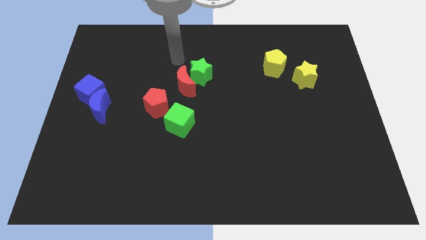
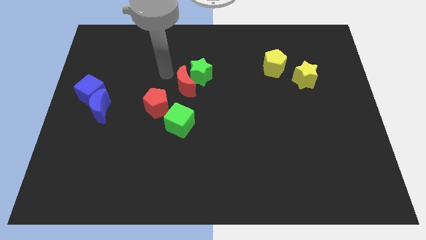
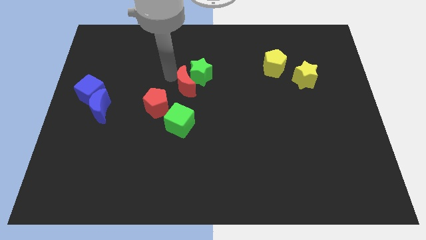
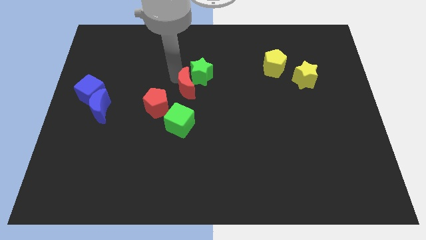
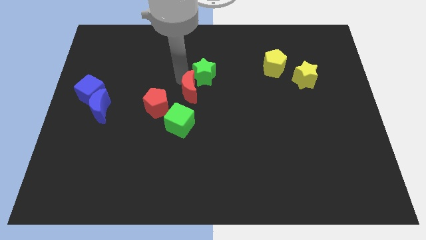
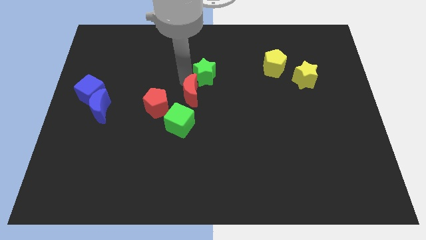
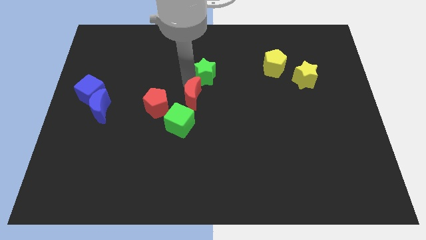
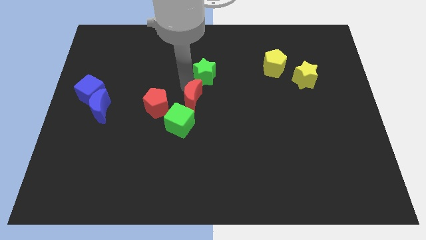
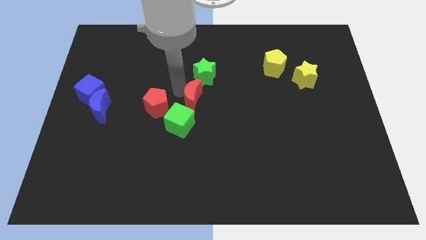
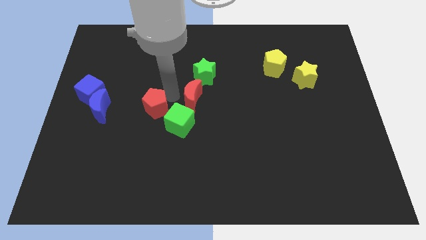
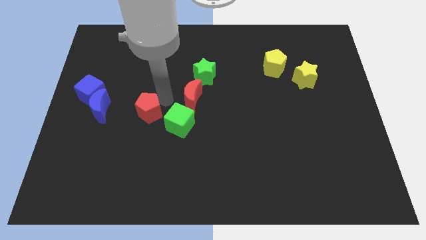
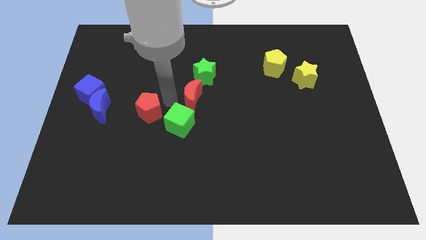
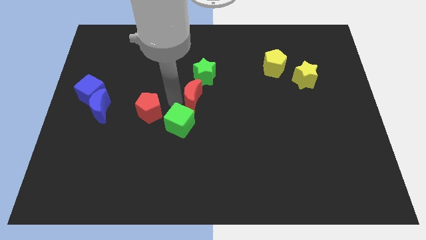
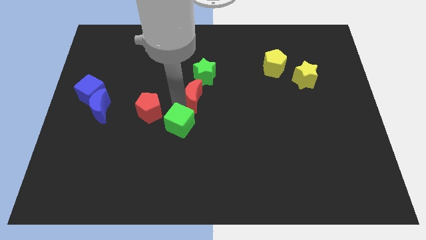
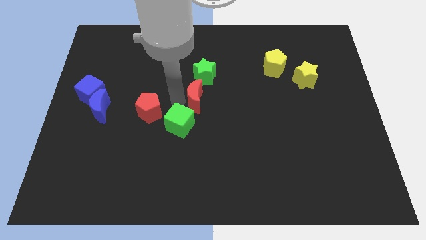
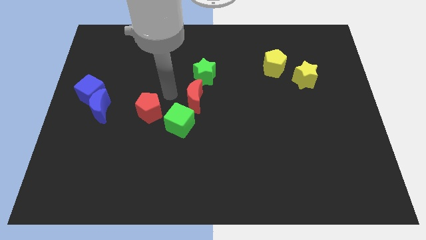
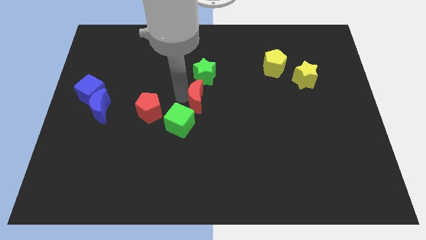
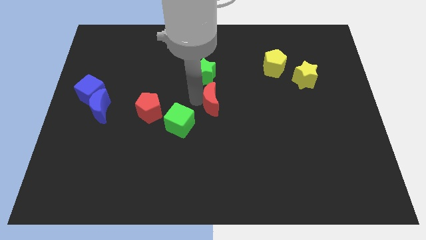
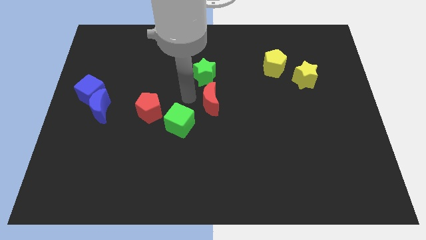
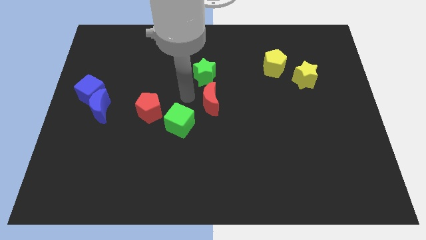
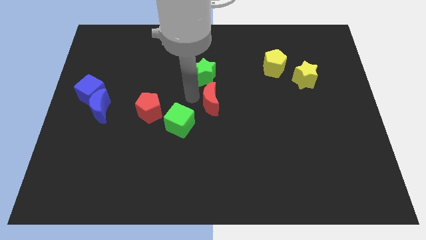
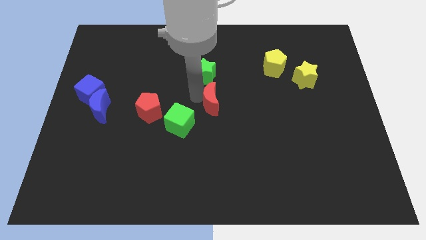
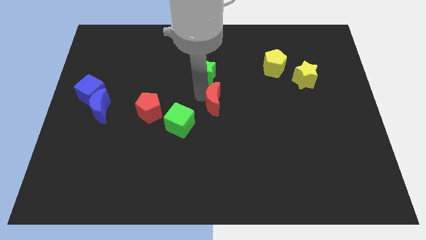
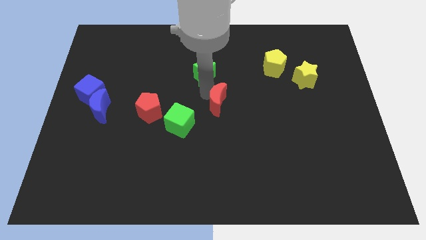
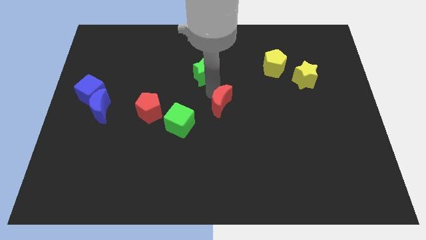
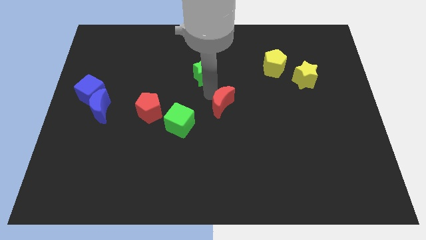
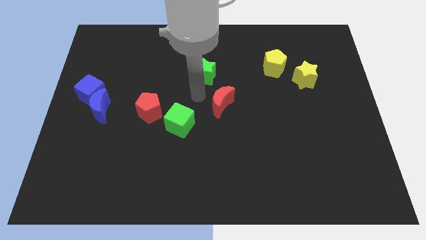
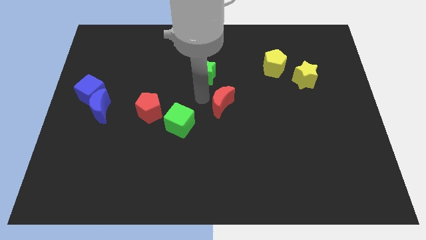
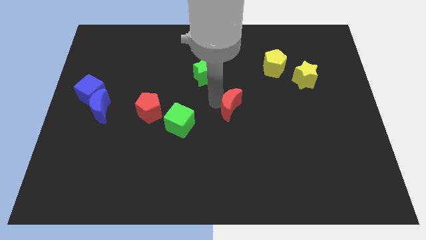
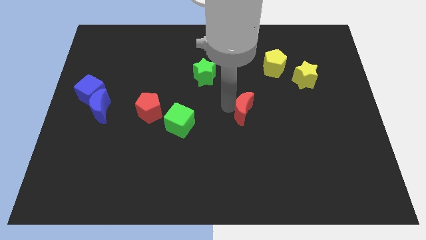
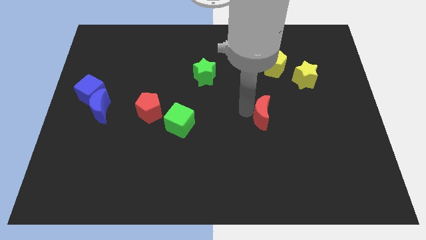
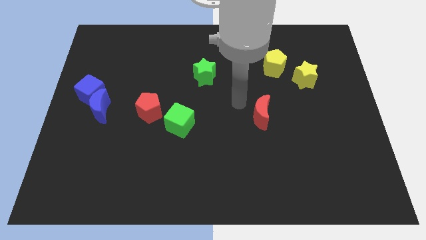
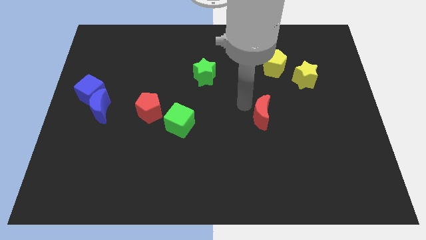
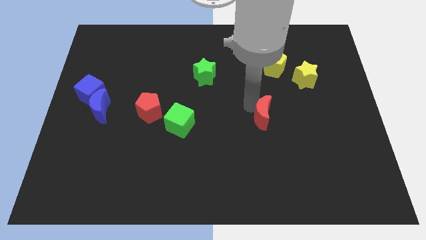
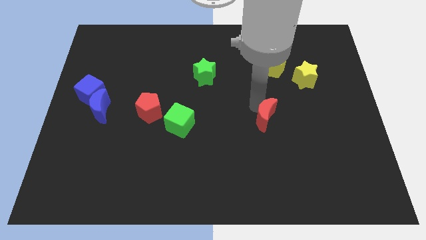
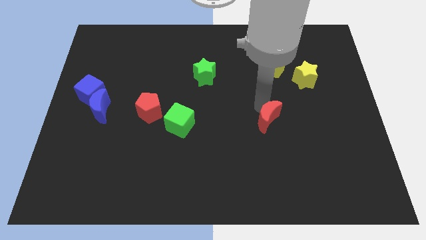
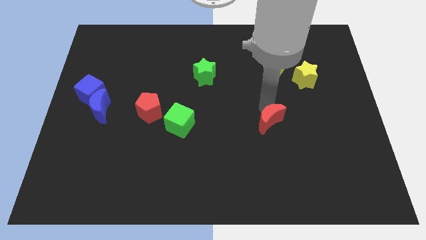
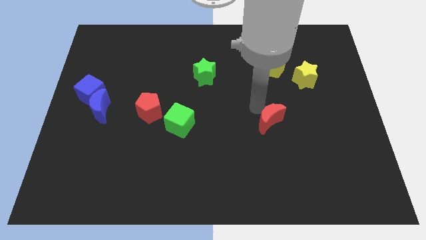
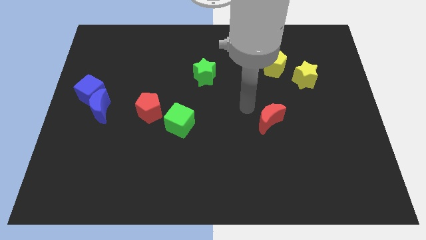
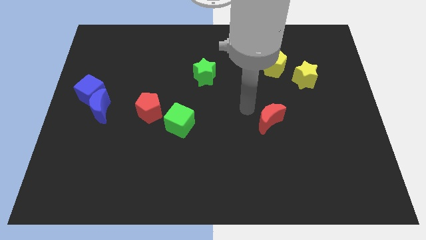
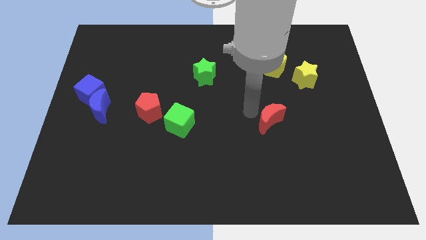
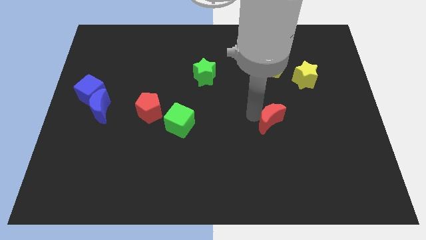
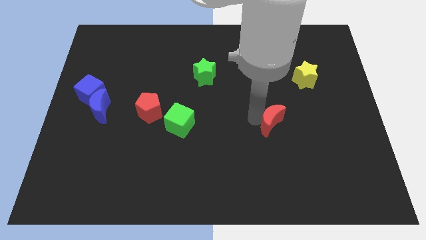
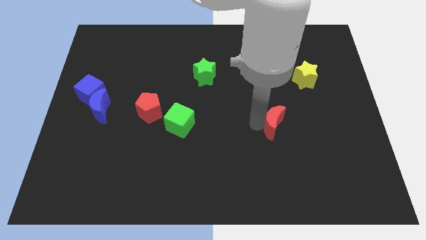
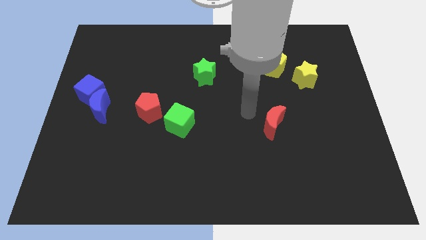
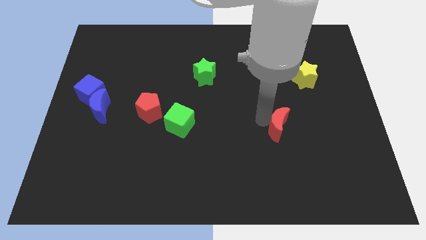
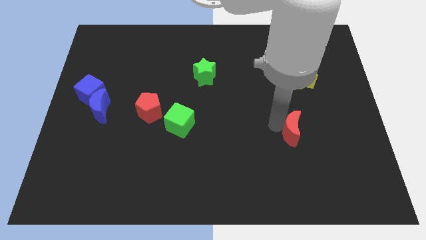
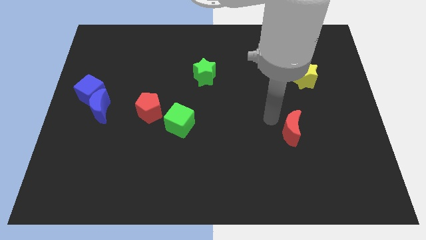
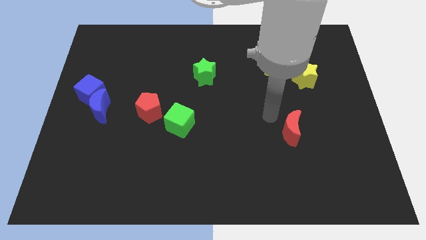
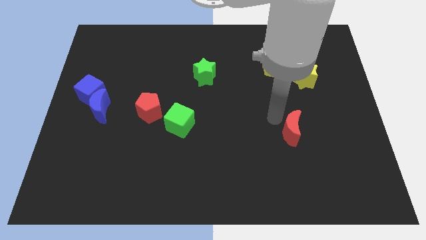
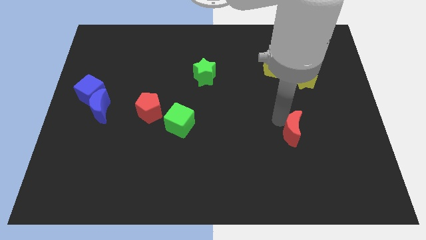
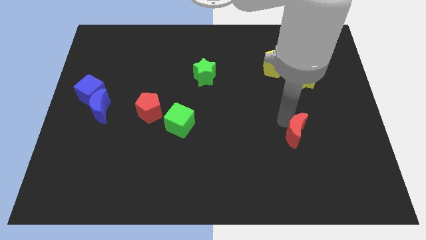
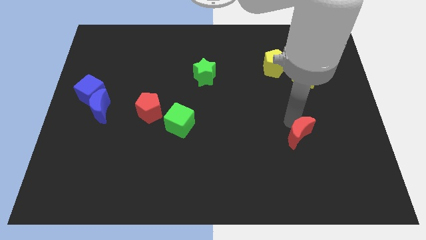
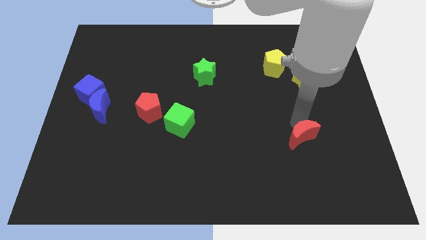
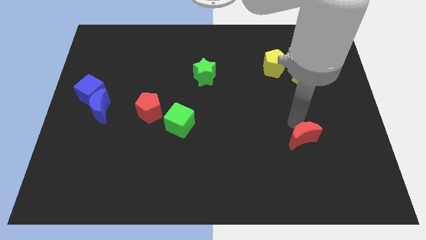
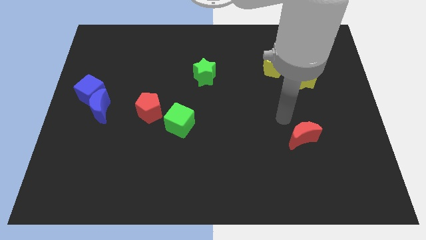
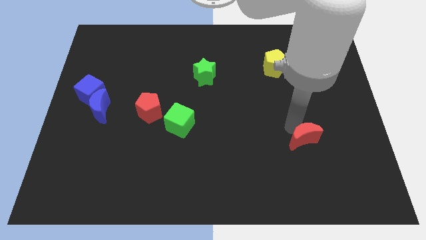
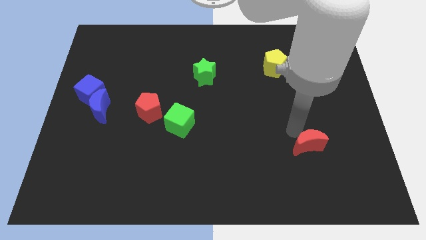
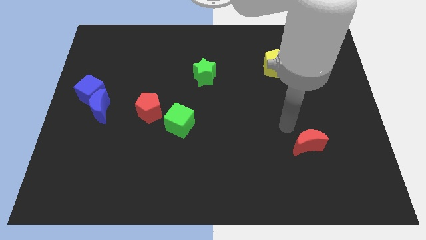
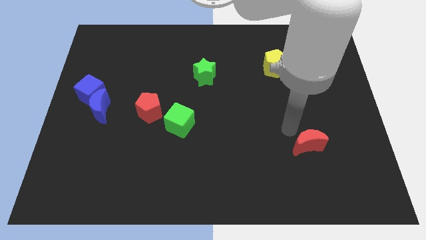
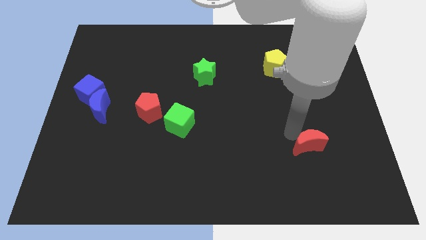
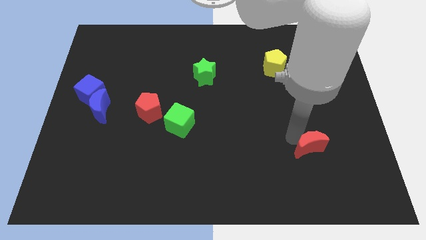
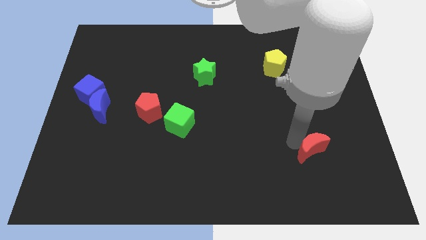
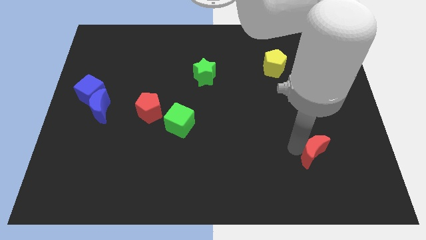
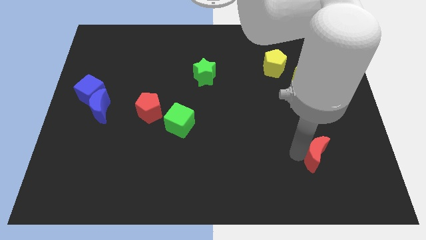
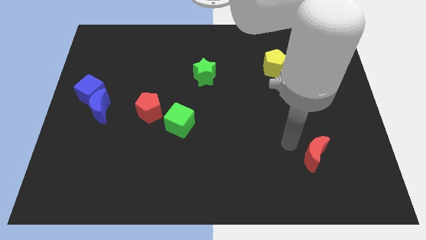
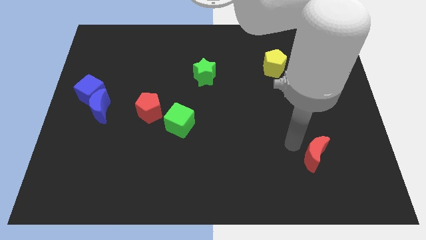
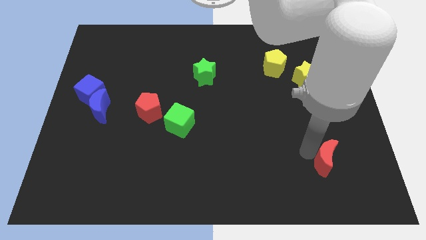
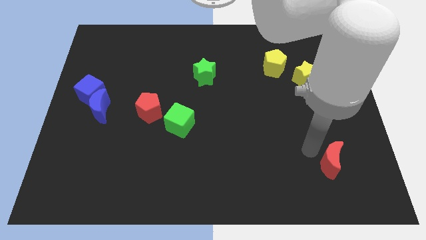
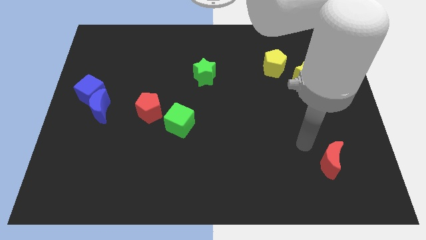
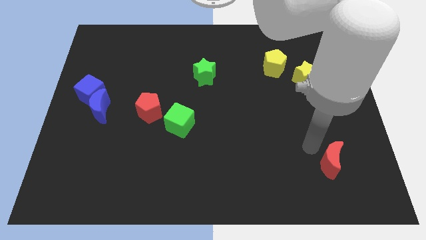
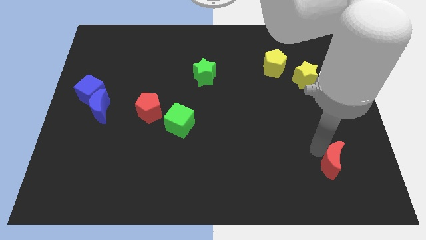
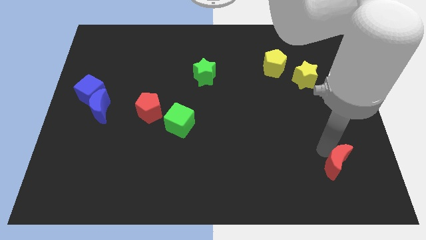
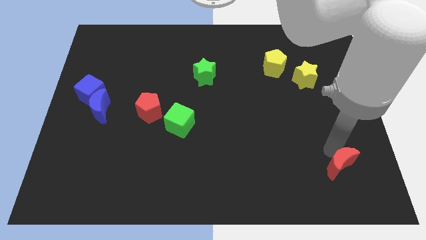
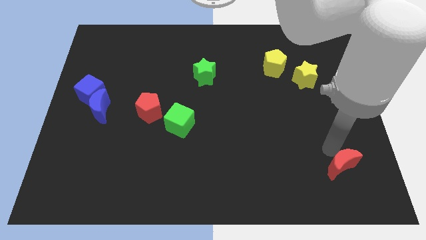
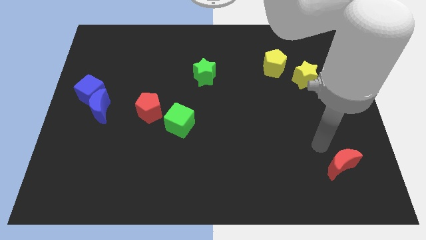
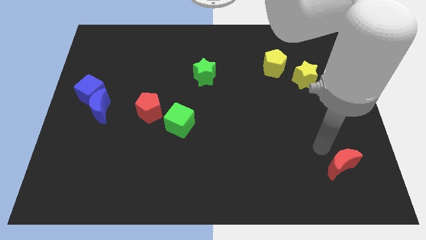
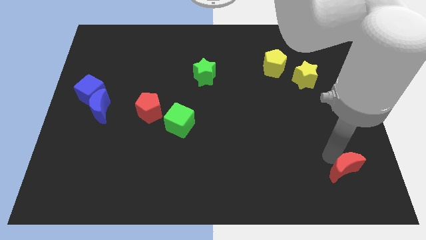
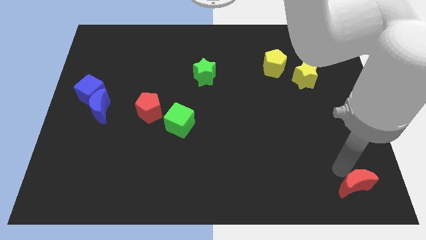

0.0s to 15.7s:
put the red moon to the lower right corner
